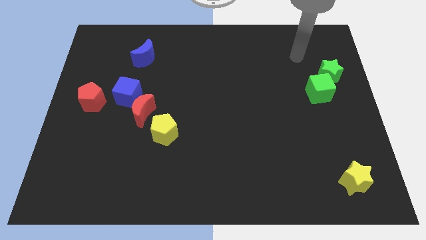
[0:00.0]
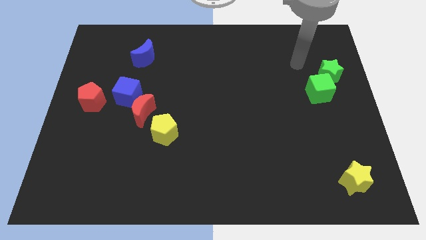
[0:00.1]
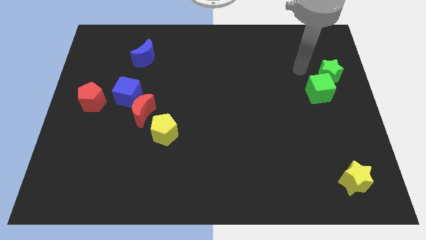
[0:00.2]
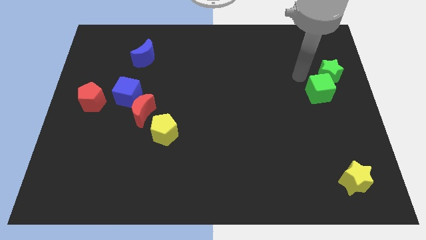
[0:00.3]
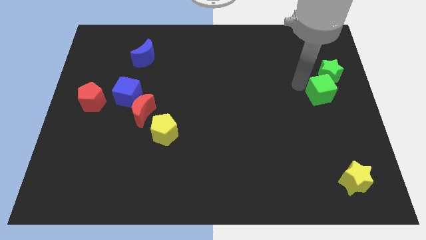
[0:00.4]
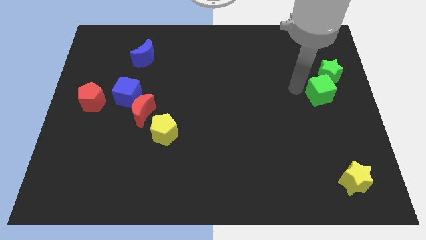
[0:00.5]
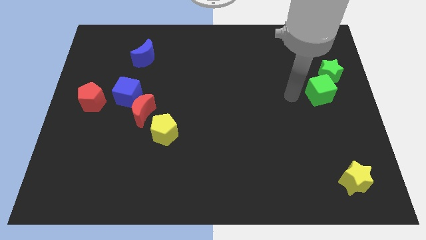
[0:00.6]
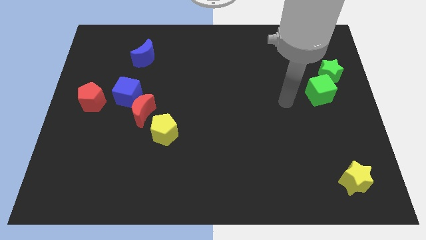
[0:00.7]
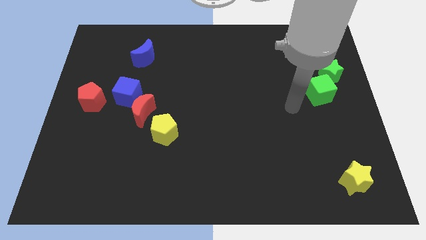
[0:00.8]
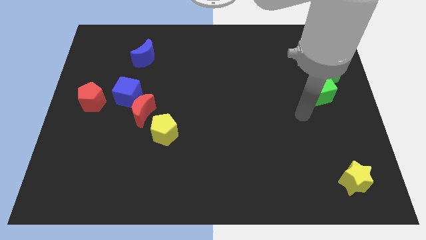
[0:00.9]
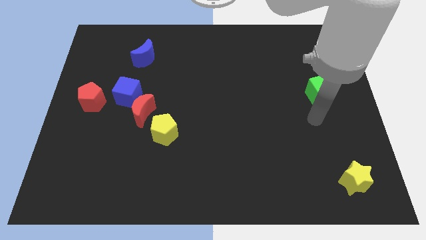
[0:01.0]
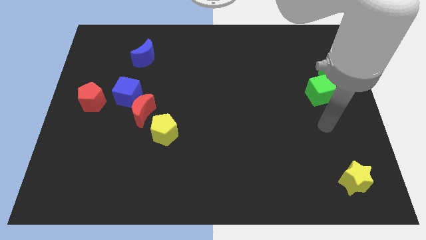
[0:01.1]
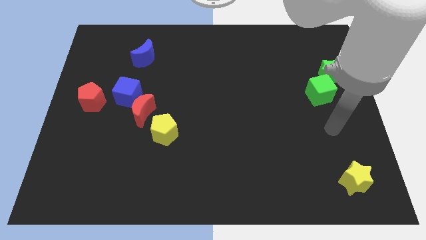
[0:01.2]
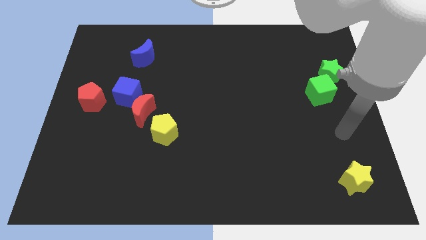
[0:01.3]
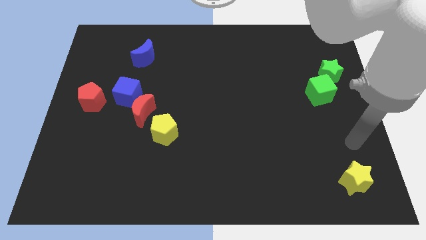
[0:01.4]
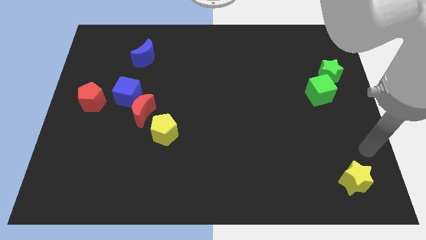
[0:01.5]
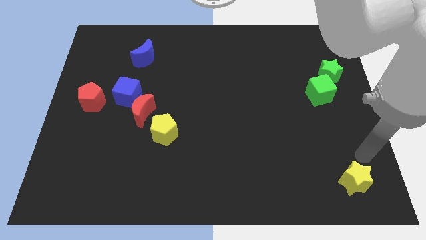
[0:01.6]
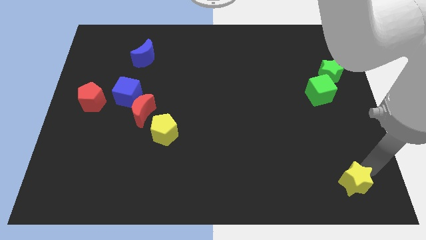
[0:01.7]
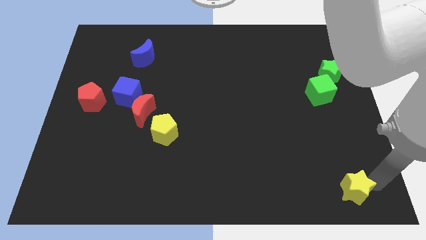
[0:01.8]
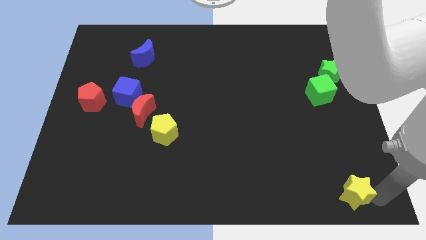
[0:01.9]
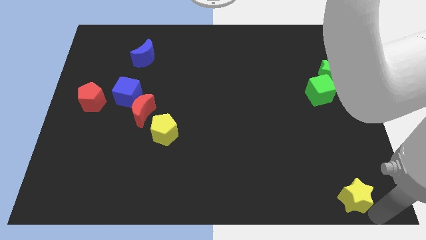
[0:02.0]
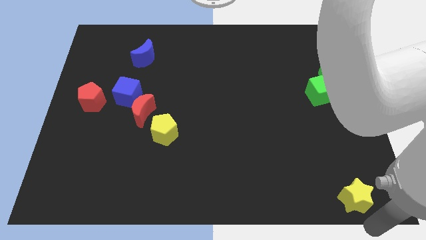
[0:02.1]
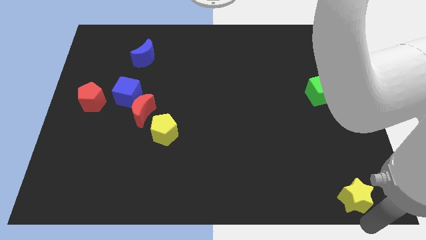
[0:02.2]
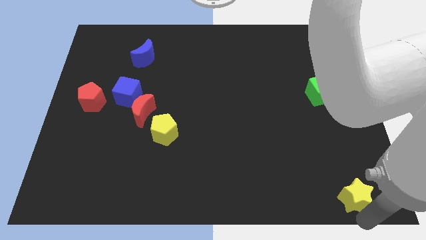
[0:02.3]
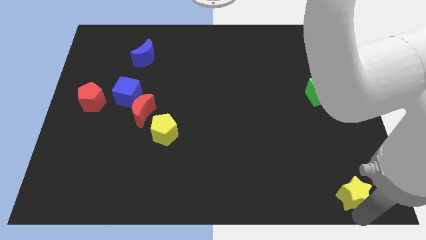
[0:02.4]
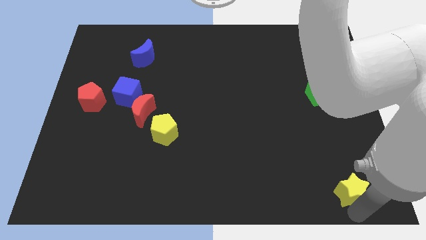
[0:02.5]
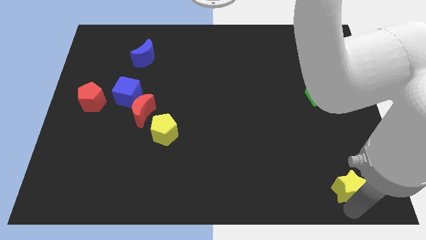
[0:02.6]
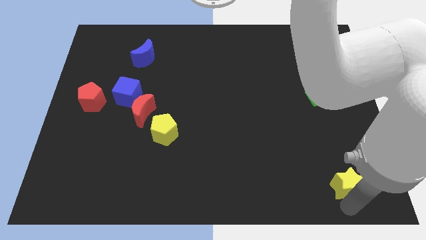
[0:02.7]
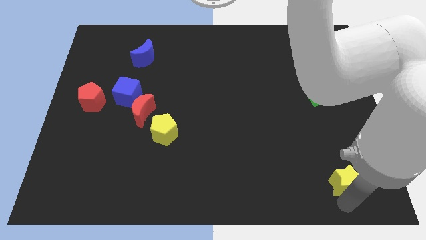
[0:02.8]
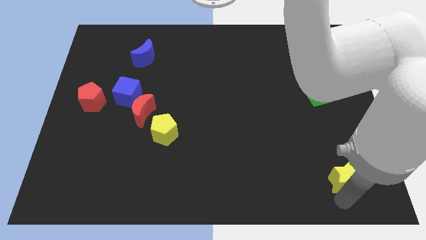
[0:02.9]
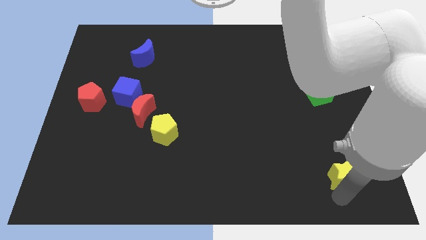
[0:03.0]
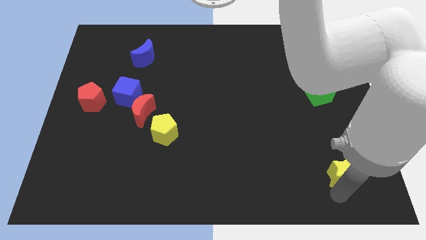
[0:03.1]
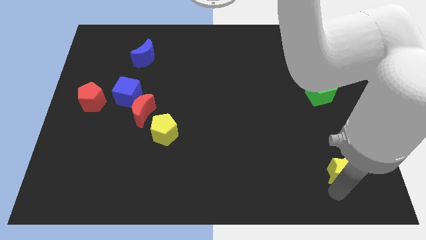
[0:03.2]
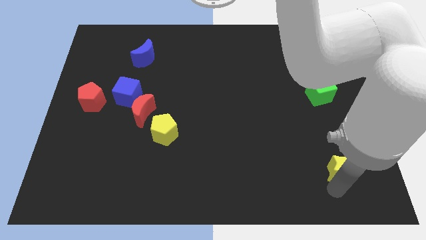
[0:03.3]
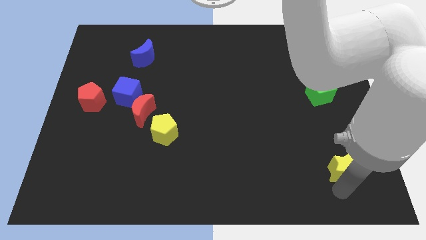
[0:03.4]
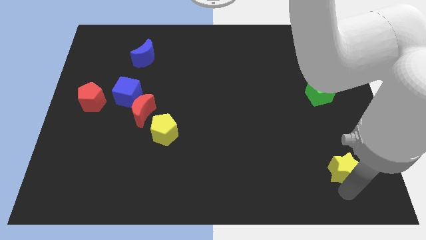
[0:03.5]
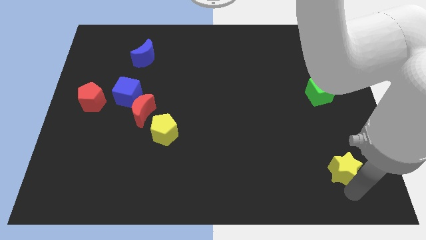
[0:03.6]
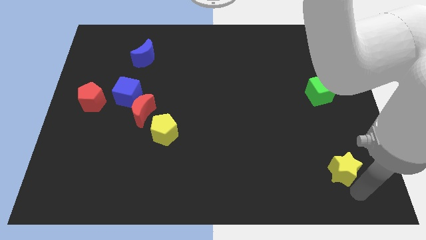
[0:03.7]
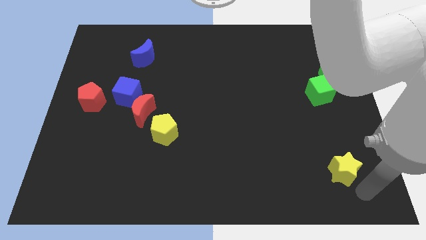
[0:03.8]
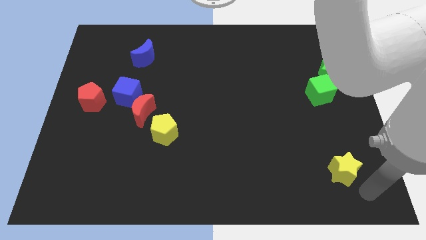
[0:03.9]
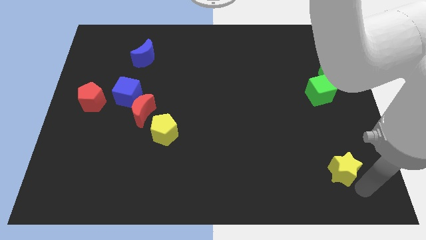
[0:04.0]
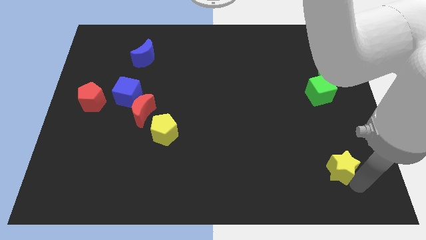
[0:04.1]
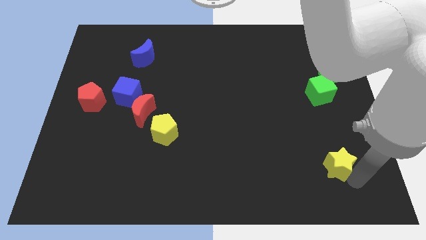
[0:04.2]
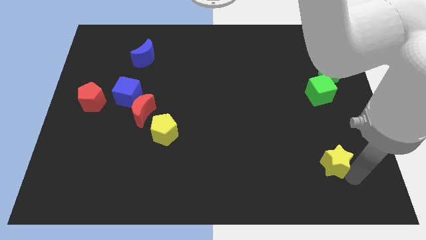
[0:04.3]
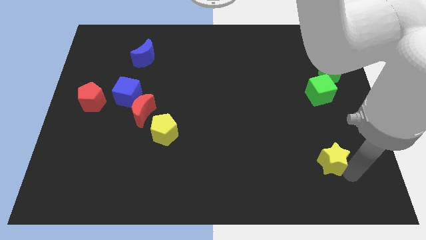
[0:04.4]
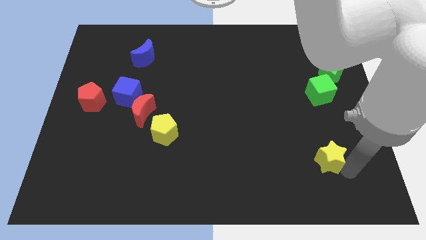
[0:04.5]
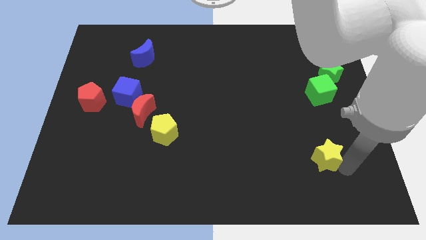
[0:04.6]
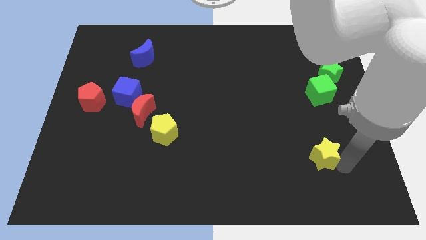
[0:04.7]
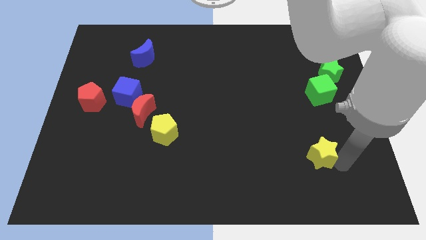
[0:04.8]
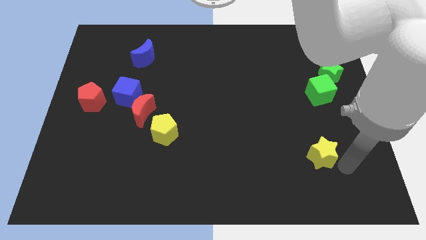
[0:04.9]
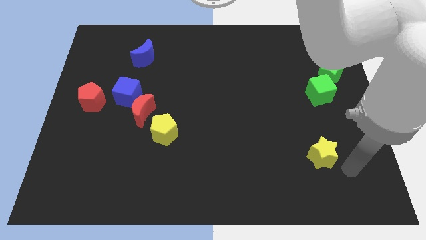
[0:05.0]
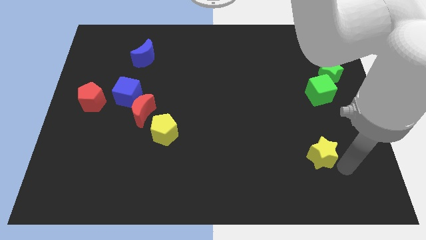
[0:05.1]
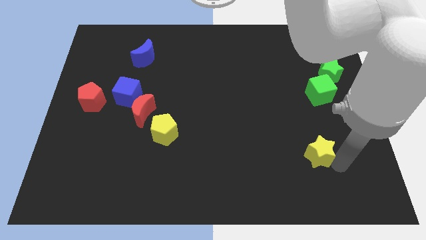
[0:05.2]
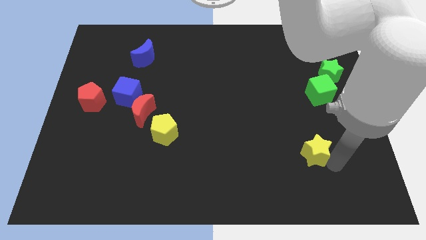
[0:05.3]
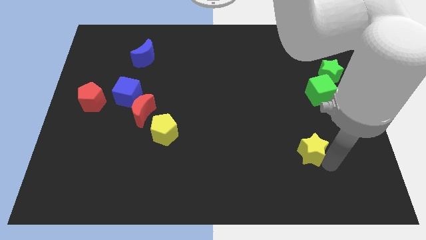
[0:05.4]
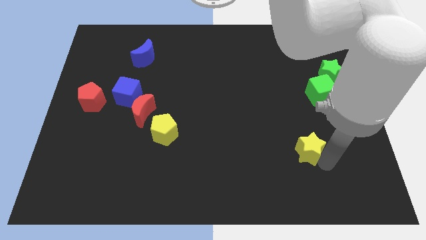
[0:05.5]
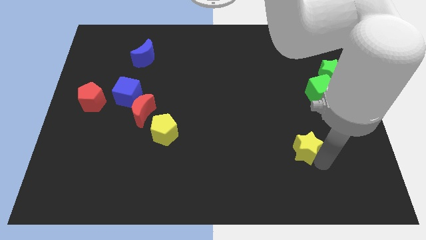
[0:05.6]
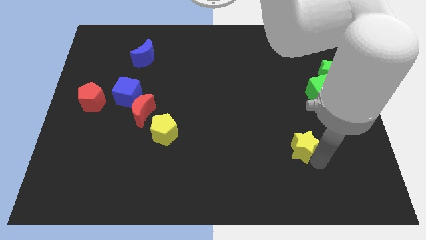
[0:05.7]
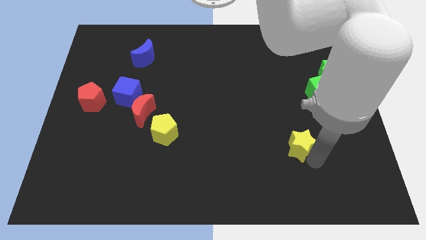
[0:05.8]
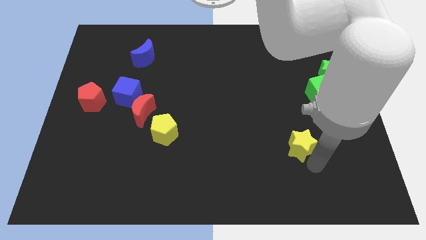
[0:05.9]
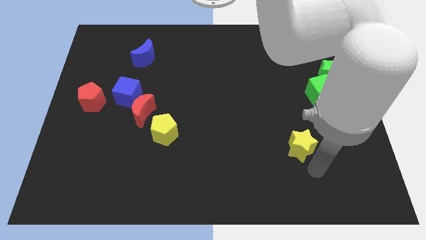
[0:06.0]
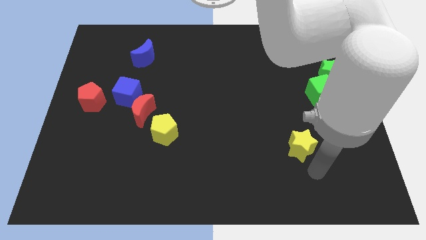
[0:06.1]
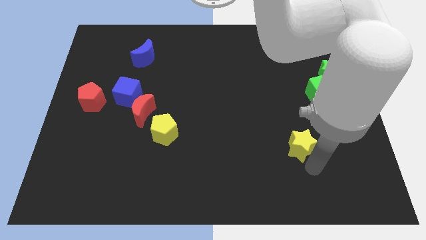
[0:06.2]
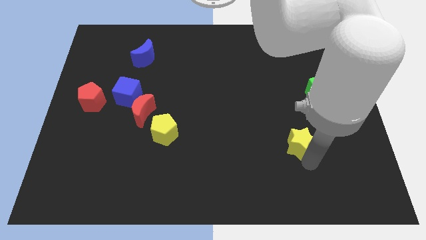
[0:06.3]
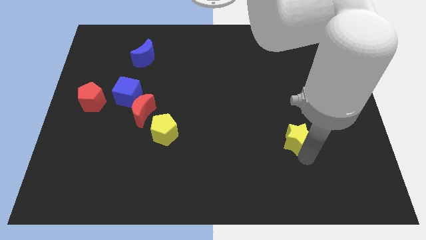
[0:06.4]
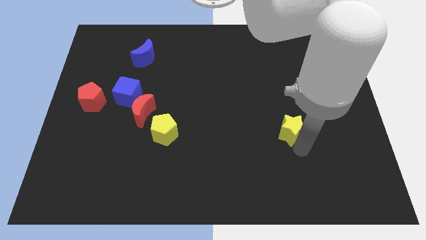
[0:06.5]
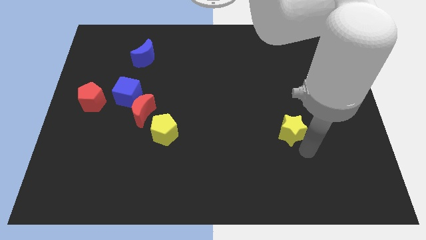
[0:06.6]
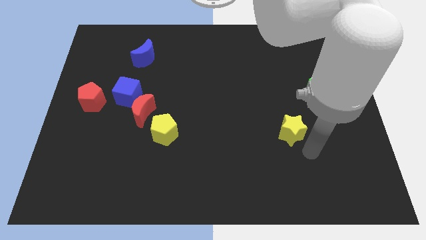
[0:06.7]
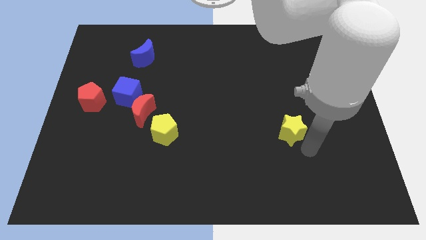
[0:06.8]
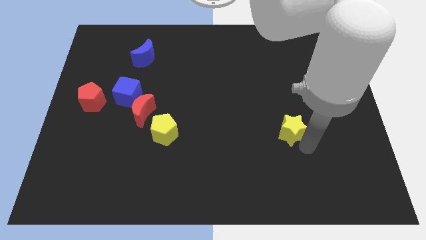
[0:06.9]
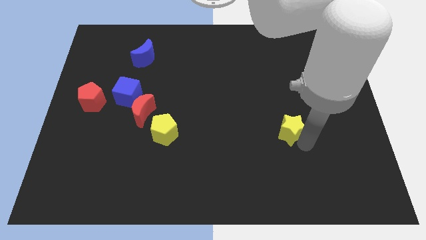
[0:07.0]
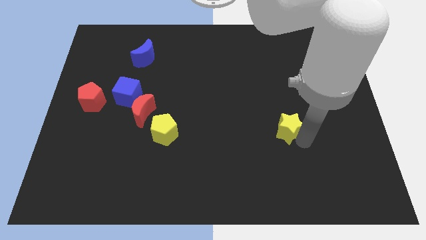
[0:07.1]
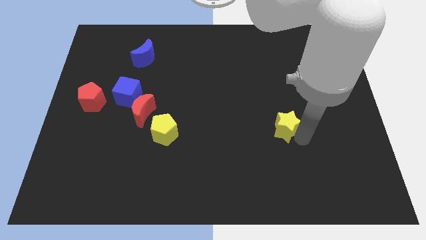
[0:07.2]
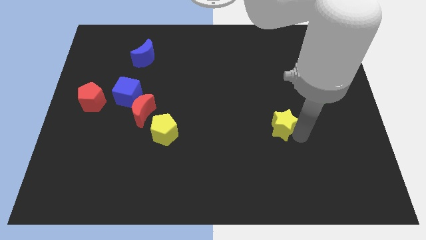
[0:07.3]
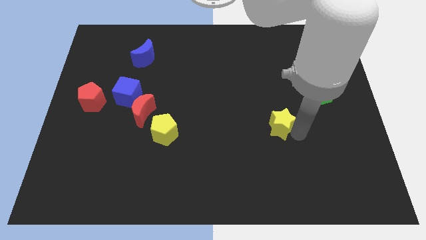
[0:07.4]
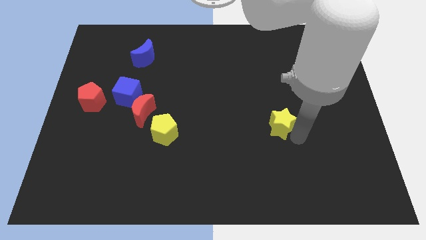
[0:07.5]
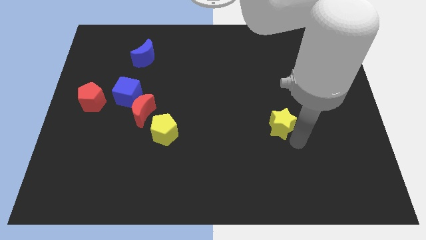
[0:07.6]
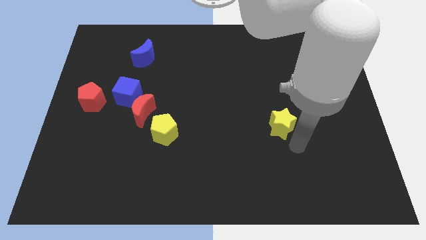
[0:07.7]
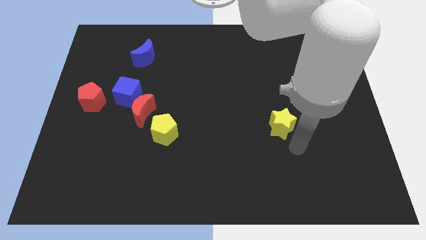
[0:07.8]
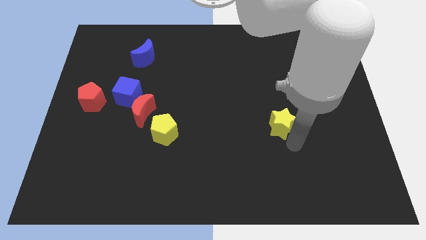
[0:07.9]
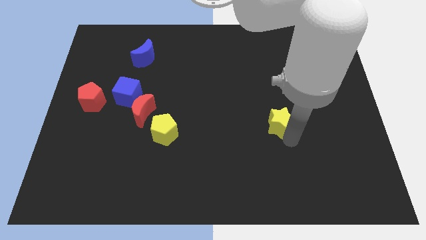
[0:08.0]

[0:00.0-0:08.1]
push the yellow star up and then to the left

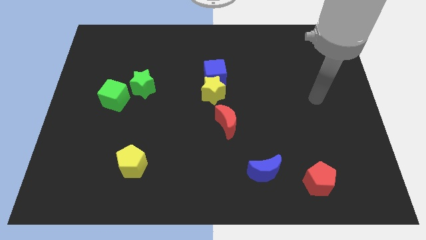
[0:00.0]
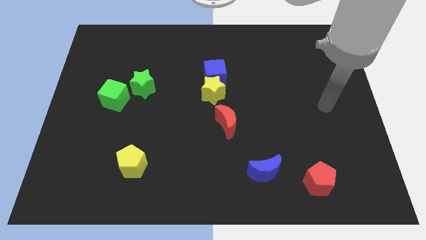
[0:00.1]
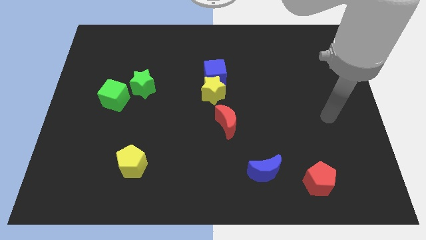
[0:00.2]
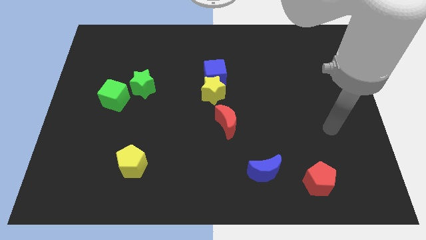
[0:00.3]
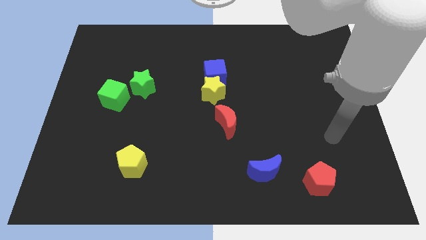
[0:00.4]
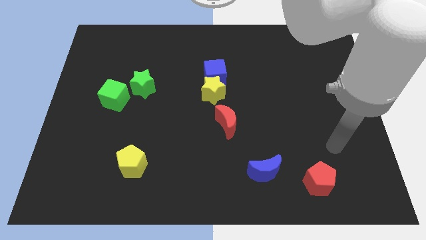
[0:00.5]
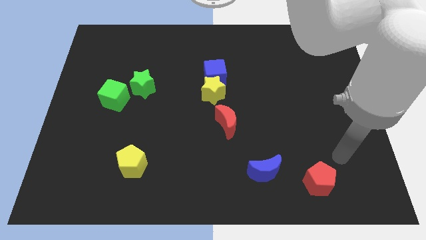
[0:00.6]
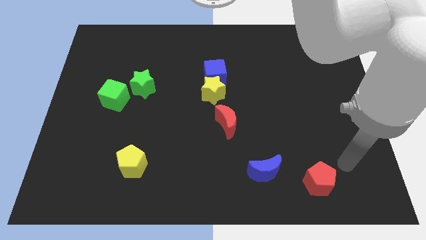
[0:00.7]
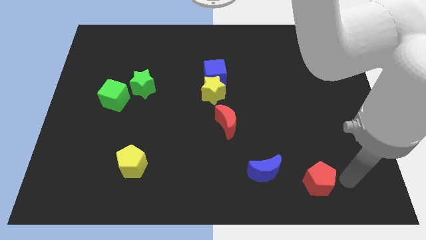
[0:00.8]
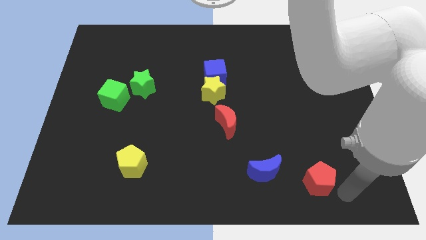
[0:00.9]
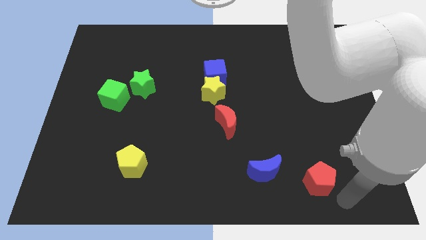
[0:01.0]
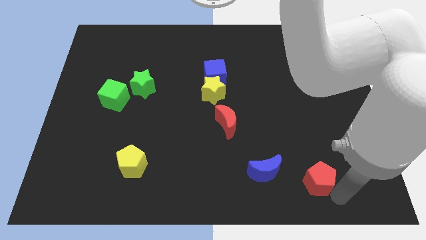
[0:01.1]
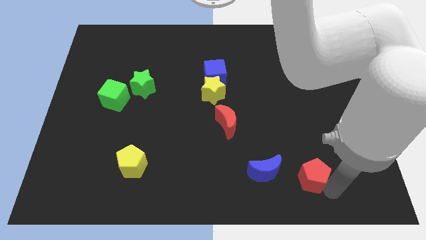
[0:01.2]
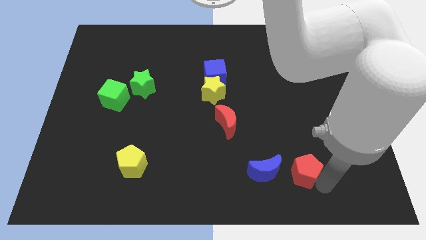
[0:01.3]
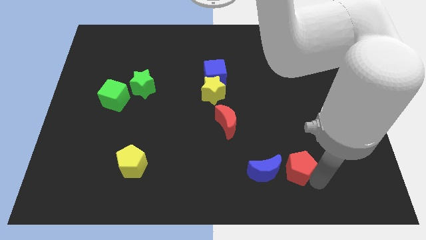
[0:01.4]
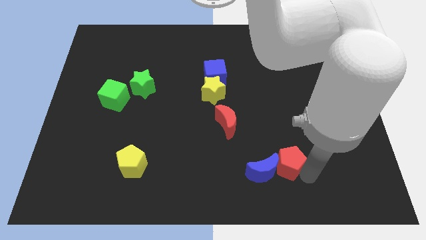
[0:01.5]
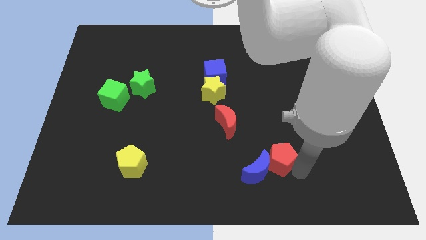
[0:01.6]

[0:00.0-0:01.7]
slightly move the red pentagon up and to the left diagonally
